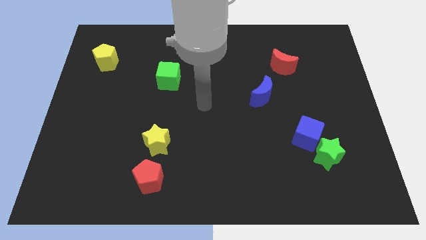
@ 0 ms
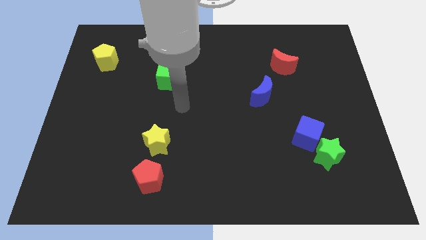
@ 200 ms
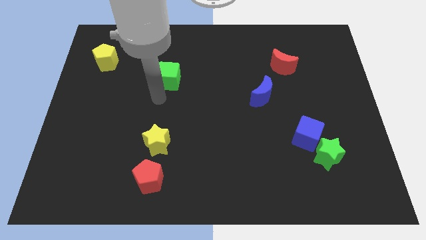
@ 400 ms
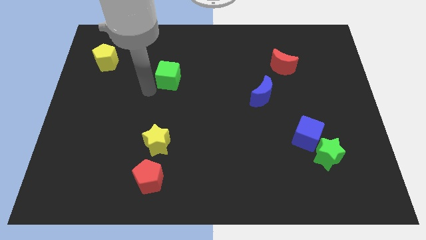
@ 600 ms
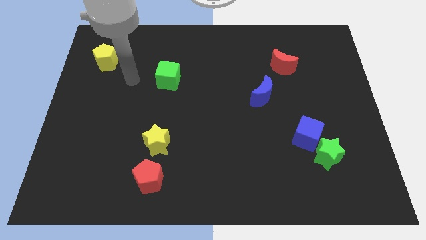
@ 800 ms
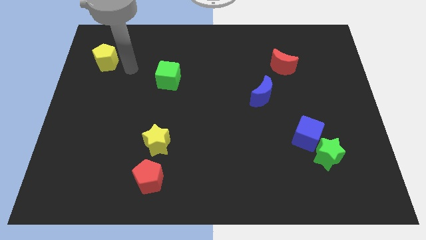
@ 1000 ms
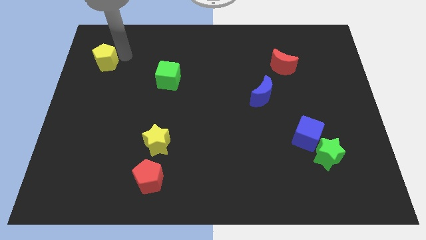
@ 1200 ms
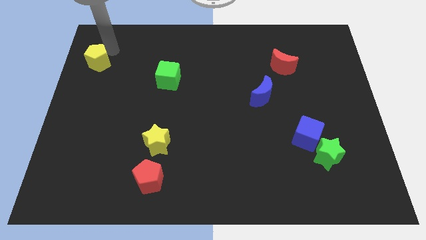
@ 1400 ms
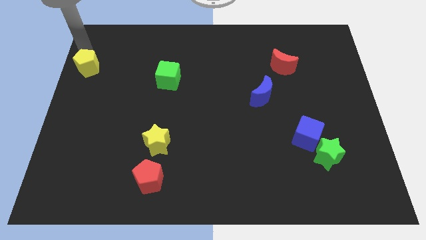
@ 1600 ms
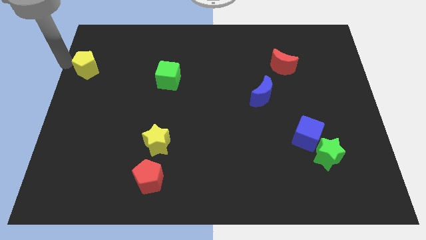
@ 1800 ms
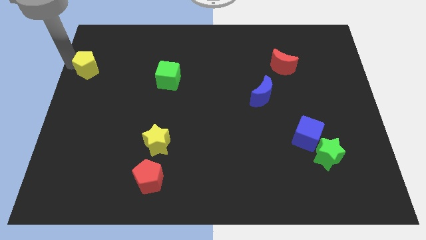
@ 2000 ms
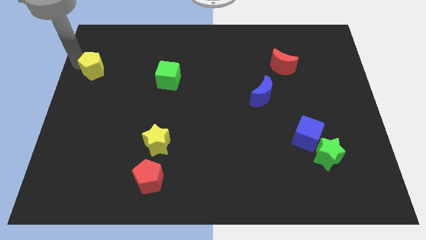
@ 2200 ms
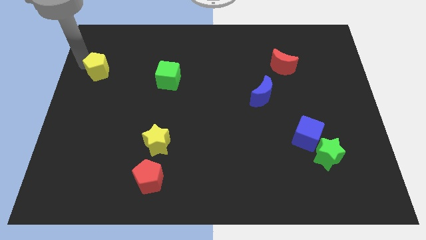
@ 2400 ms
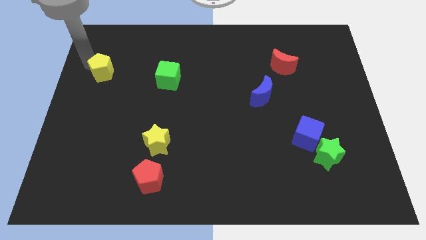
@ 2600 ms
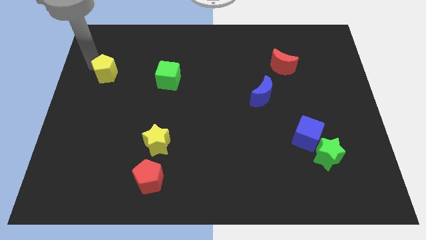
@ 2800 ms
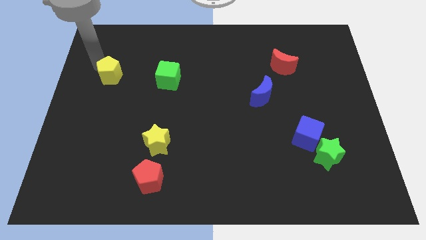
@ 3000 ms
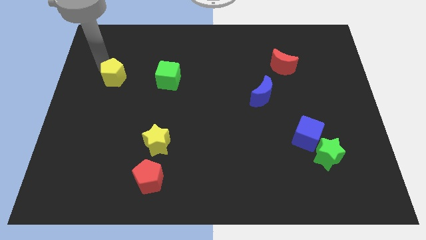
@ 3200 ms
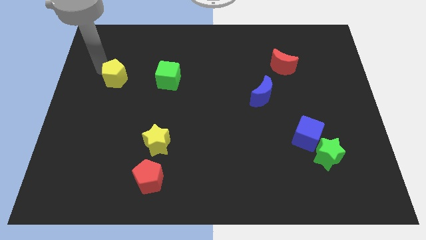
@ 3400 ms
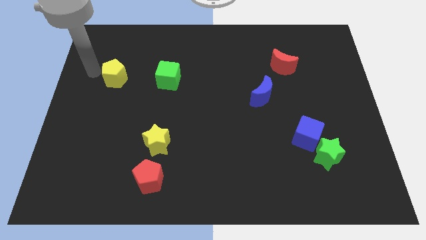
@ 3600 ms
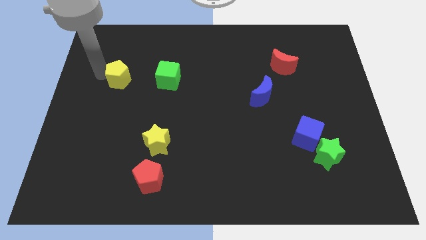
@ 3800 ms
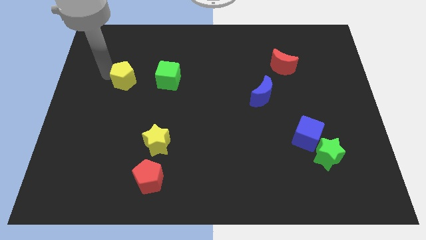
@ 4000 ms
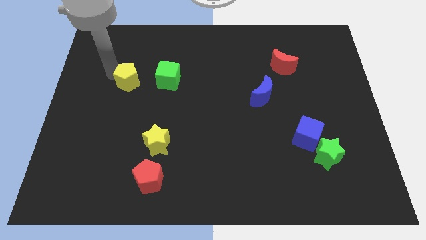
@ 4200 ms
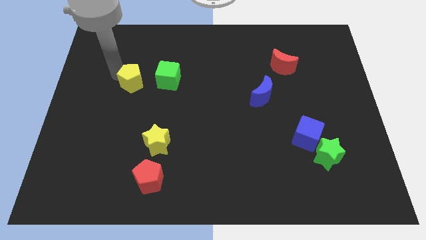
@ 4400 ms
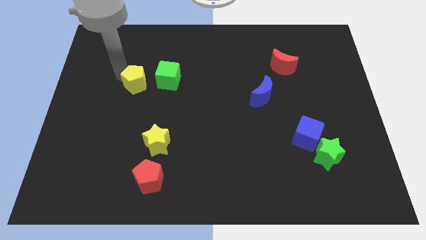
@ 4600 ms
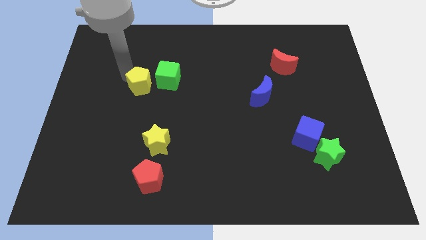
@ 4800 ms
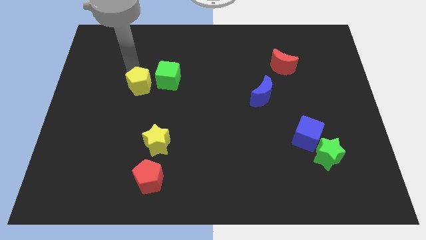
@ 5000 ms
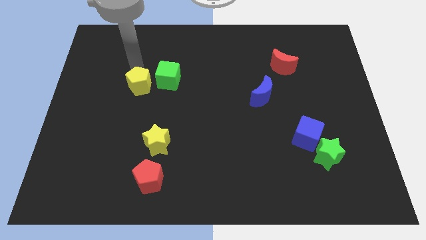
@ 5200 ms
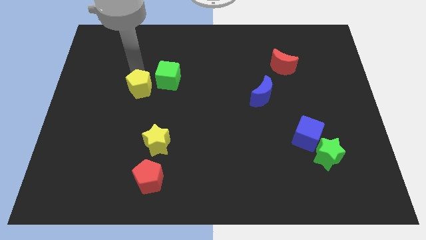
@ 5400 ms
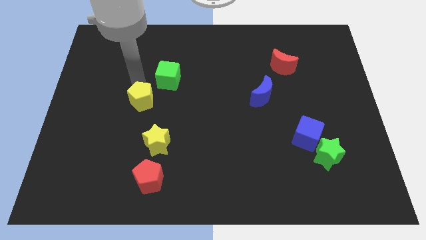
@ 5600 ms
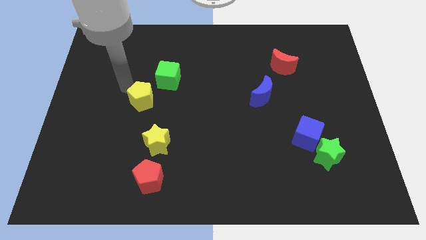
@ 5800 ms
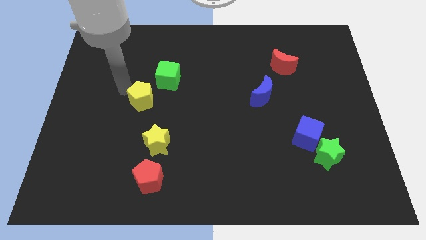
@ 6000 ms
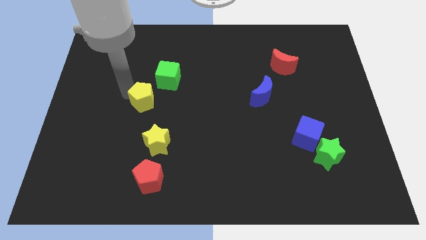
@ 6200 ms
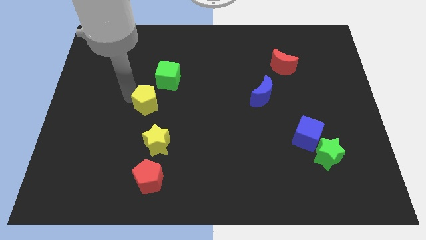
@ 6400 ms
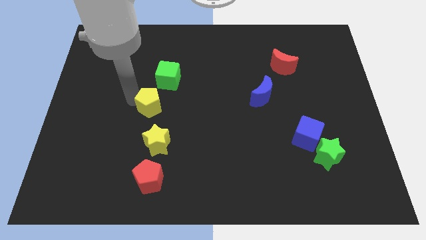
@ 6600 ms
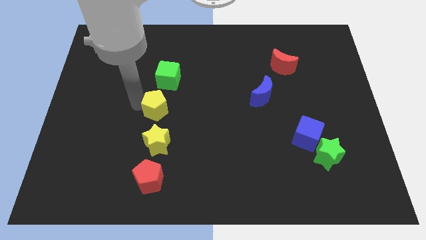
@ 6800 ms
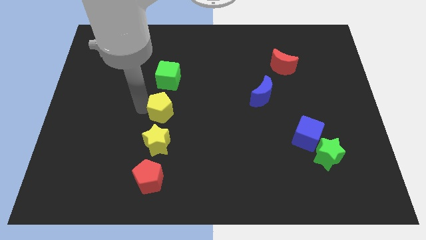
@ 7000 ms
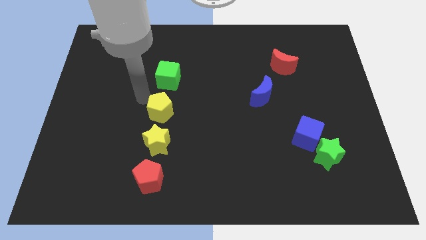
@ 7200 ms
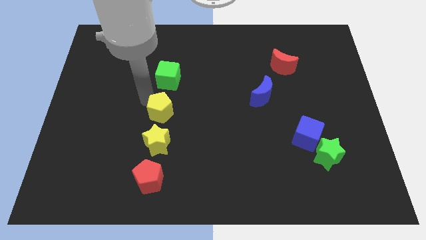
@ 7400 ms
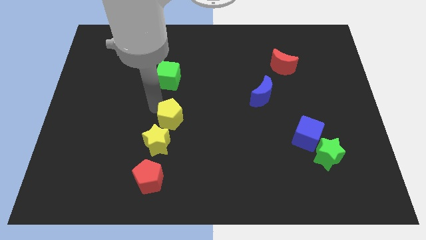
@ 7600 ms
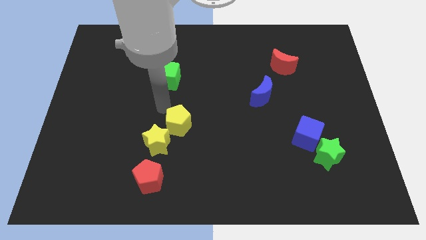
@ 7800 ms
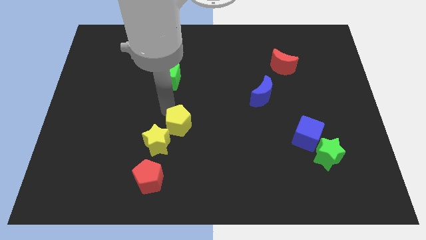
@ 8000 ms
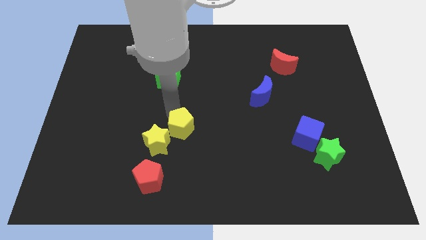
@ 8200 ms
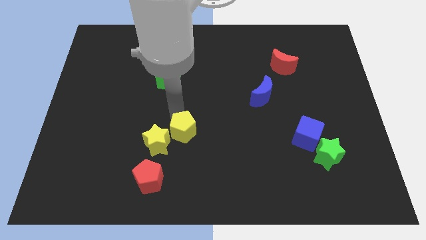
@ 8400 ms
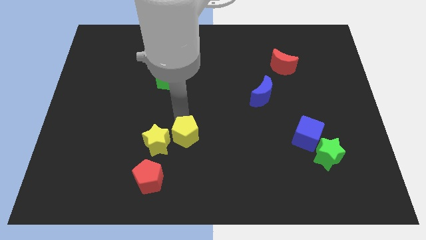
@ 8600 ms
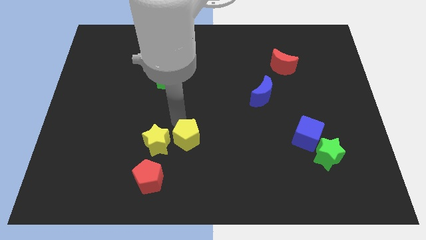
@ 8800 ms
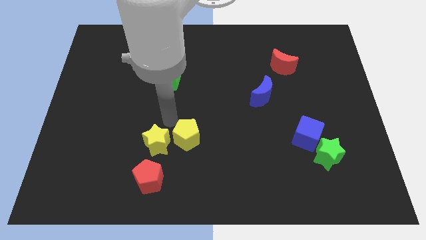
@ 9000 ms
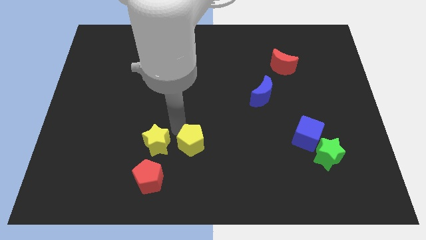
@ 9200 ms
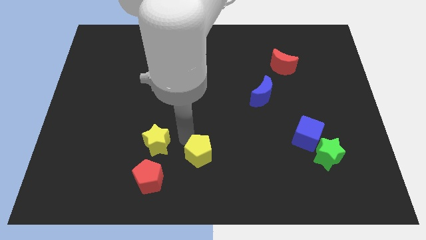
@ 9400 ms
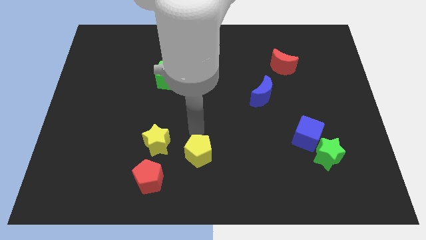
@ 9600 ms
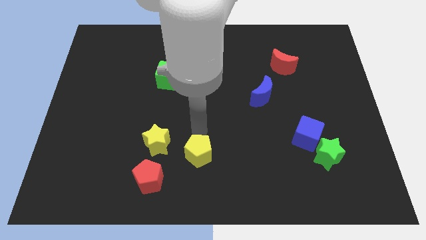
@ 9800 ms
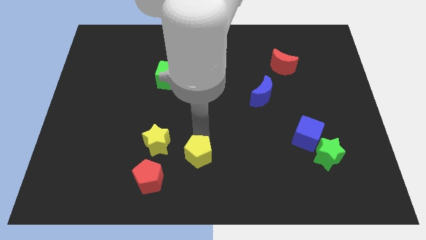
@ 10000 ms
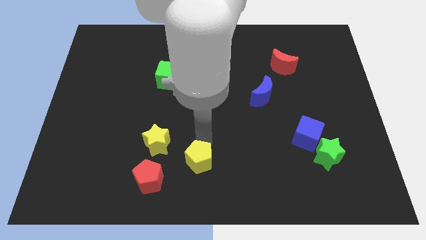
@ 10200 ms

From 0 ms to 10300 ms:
move the yellow pentagon just right of the red pentagon

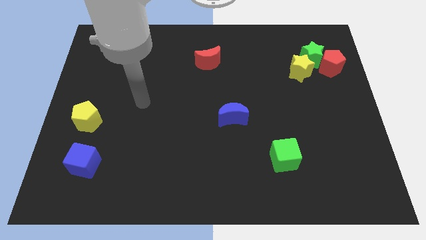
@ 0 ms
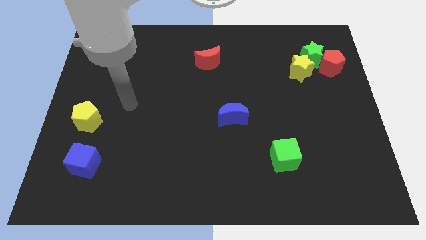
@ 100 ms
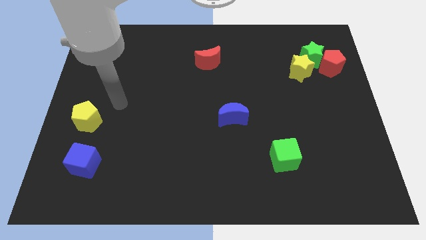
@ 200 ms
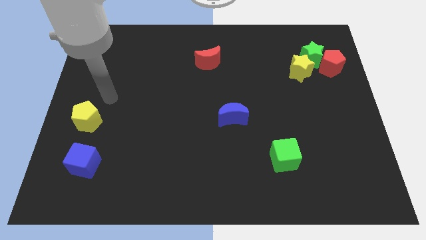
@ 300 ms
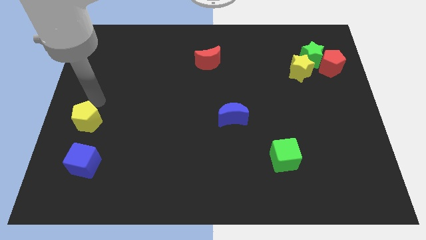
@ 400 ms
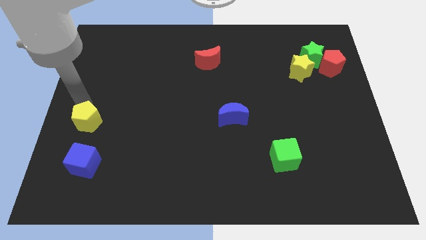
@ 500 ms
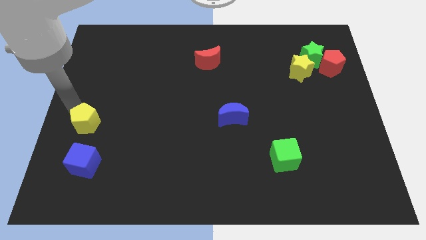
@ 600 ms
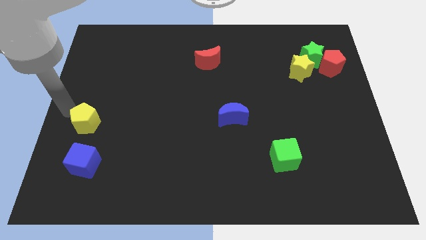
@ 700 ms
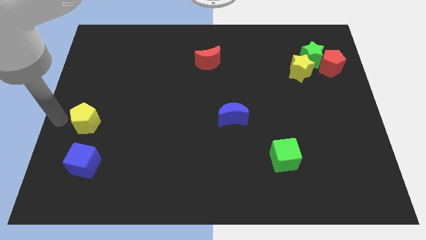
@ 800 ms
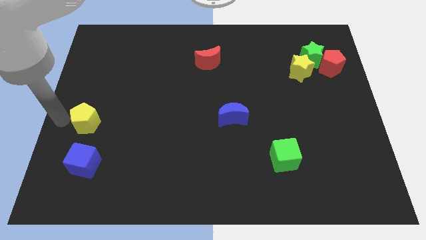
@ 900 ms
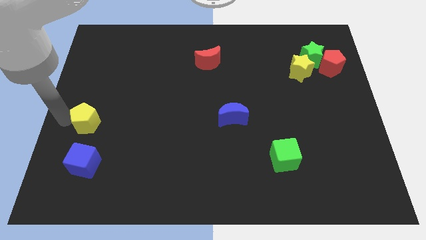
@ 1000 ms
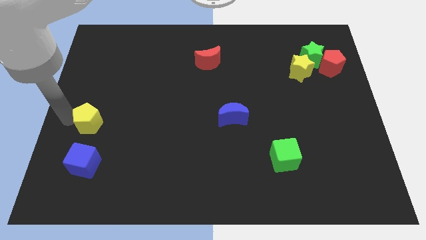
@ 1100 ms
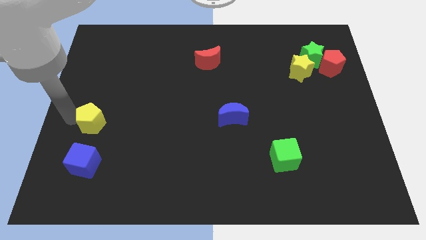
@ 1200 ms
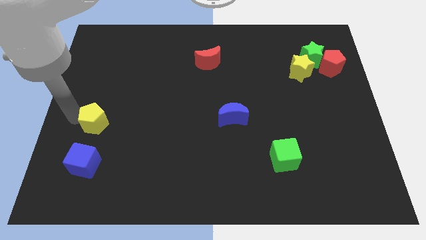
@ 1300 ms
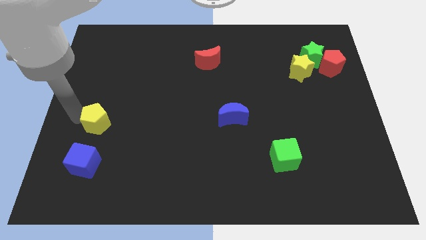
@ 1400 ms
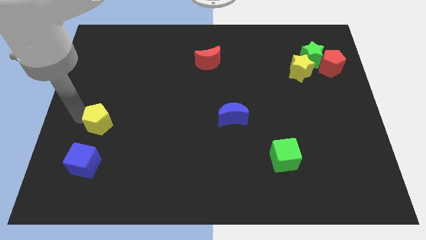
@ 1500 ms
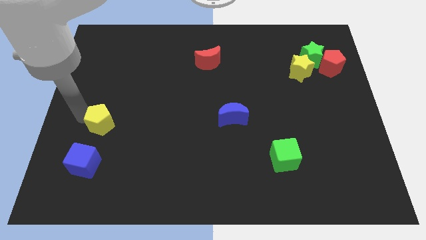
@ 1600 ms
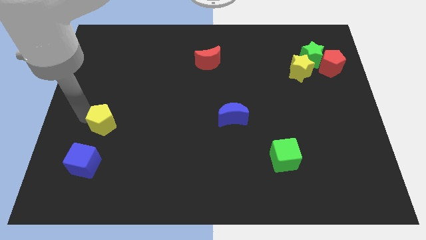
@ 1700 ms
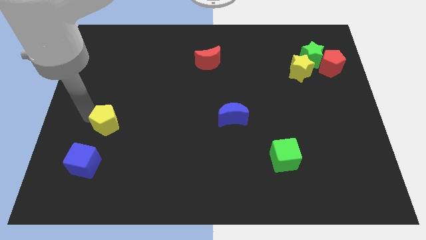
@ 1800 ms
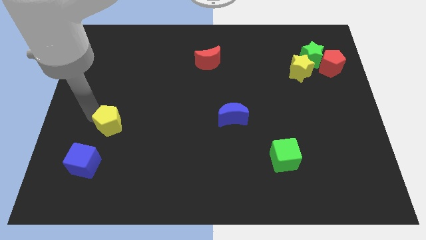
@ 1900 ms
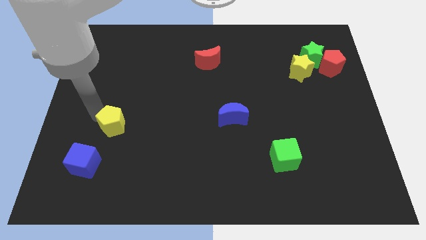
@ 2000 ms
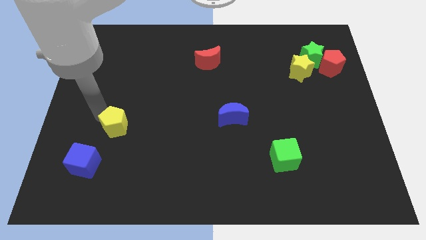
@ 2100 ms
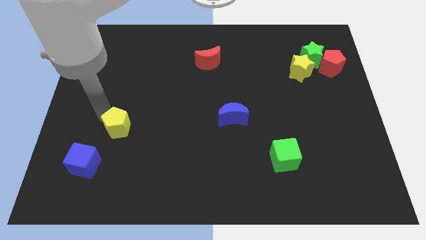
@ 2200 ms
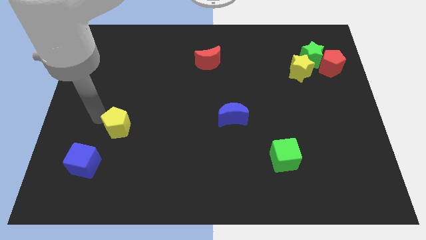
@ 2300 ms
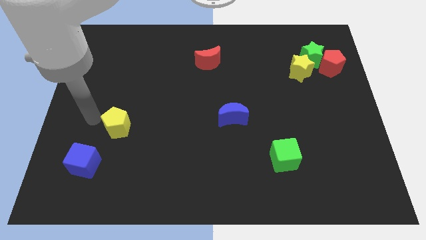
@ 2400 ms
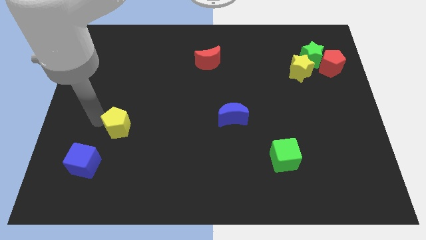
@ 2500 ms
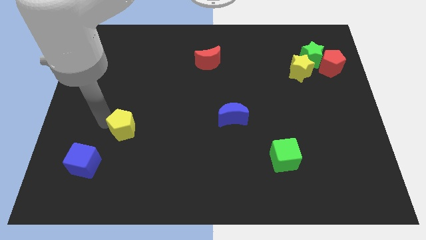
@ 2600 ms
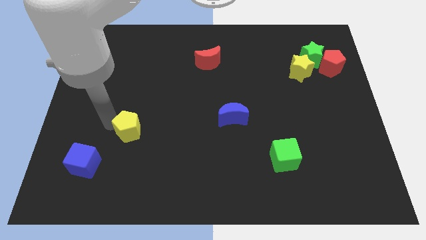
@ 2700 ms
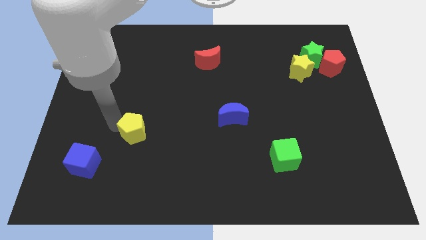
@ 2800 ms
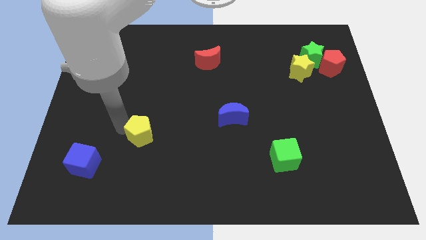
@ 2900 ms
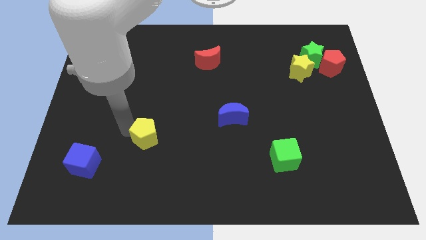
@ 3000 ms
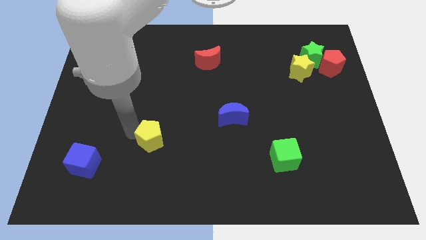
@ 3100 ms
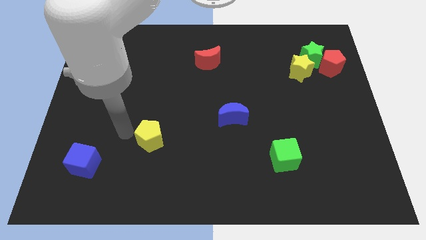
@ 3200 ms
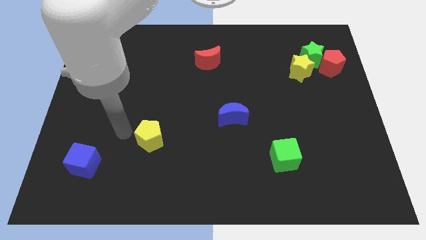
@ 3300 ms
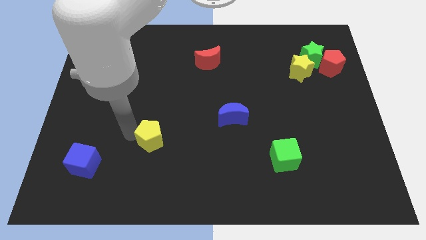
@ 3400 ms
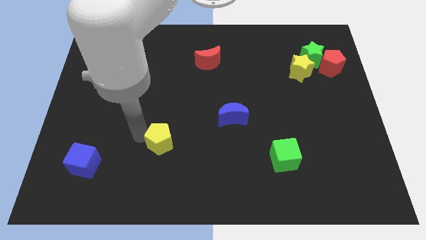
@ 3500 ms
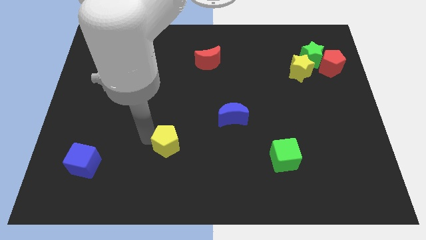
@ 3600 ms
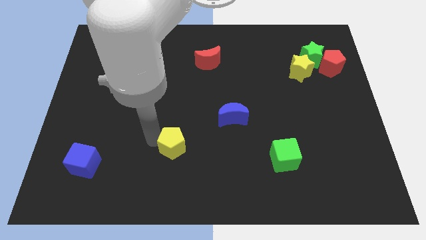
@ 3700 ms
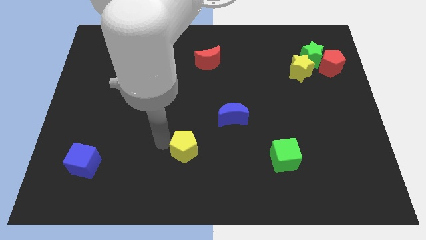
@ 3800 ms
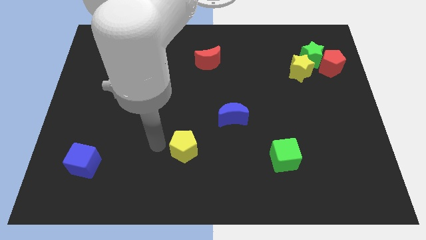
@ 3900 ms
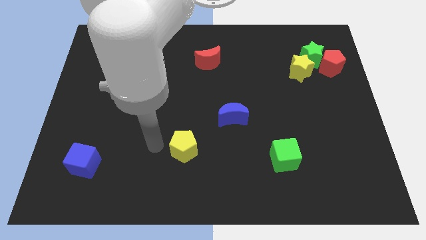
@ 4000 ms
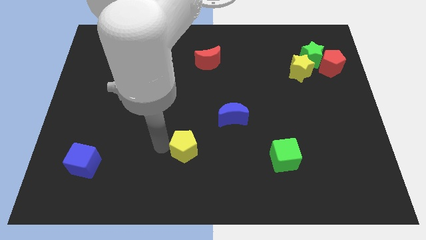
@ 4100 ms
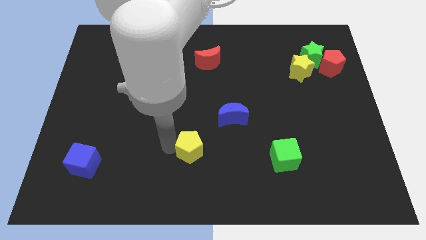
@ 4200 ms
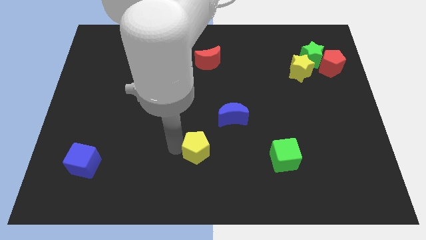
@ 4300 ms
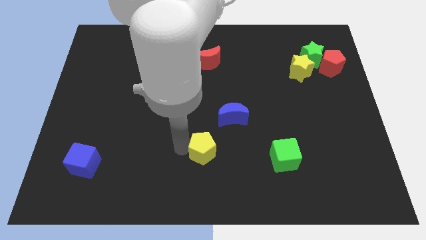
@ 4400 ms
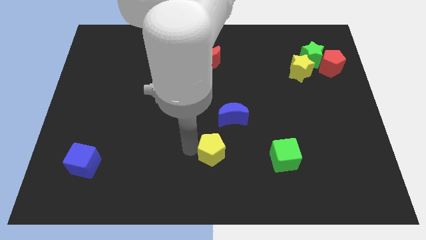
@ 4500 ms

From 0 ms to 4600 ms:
put the yellow pentagon below the blue moon
